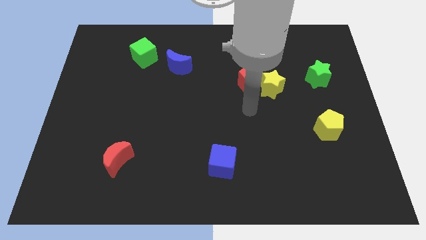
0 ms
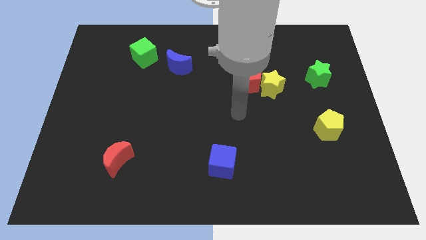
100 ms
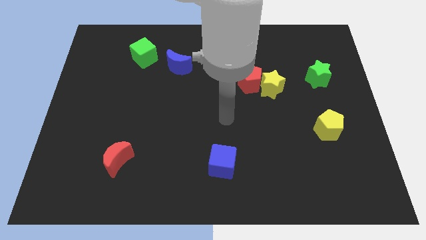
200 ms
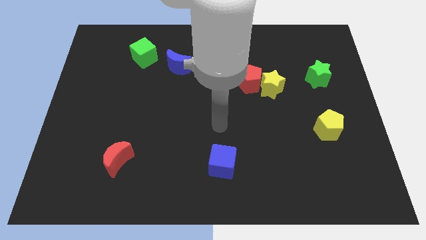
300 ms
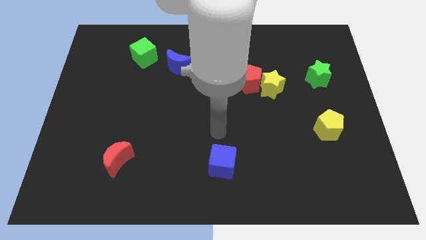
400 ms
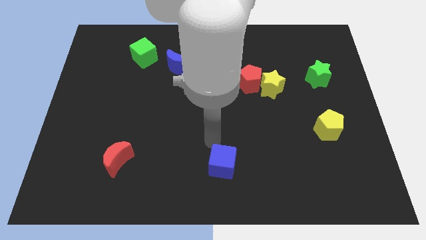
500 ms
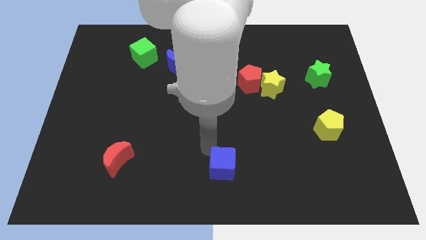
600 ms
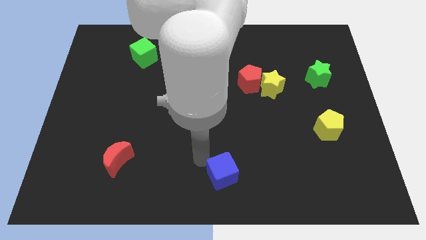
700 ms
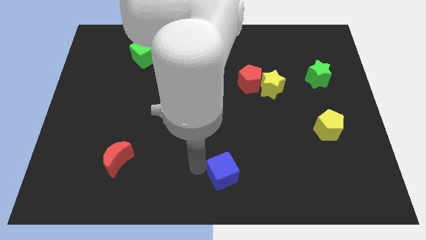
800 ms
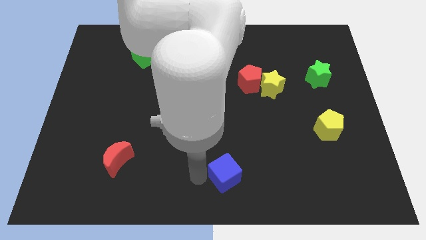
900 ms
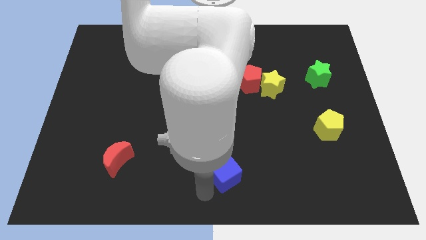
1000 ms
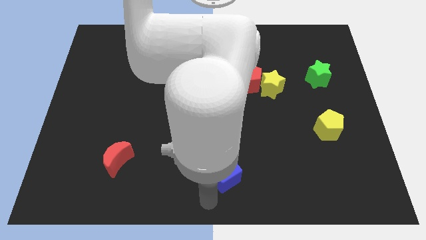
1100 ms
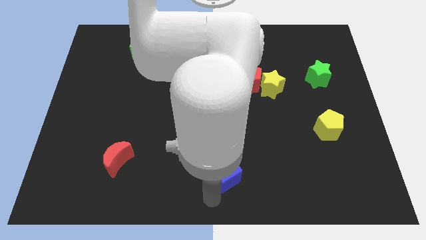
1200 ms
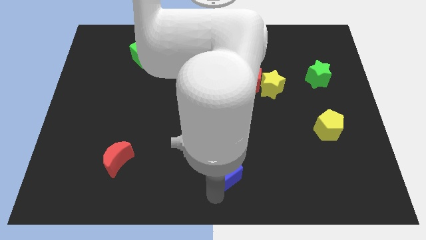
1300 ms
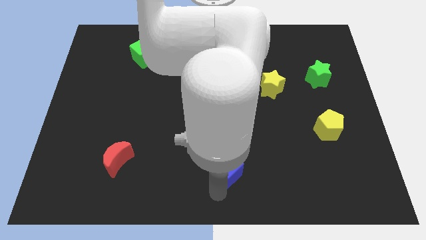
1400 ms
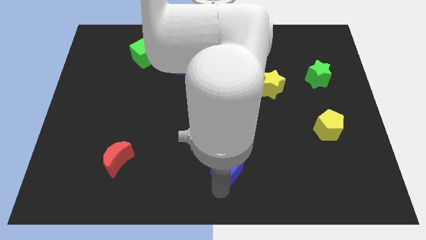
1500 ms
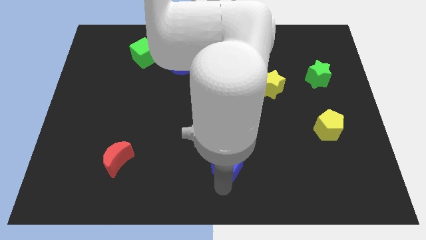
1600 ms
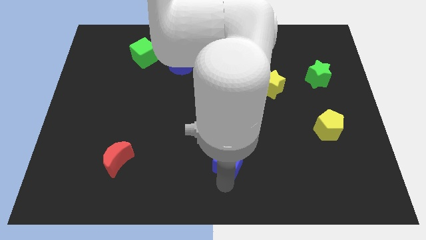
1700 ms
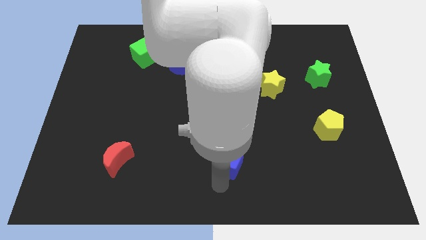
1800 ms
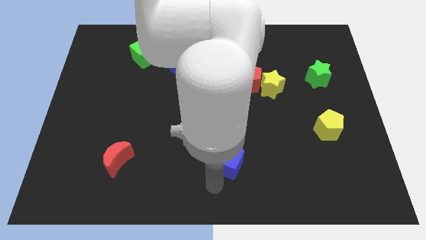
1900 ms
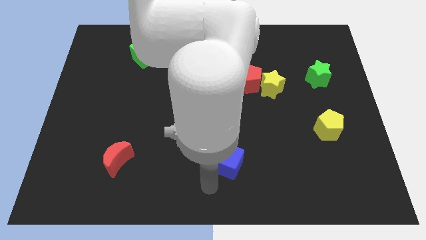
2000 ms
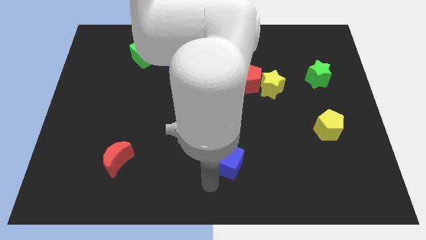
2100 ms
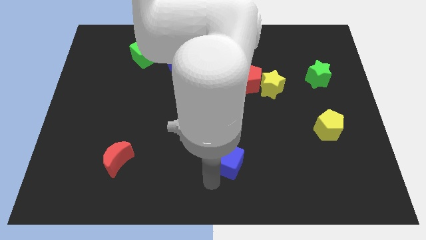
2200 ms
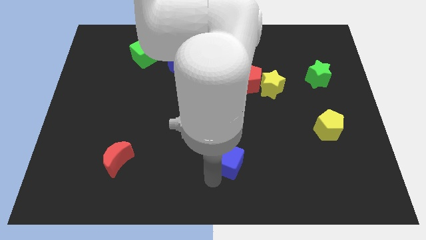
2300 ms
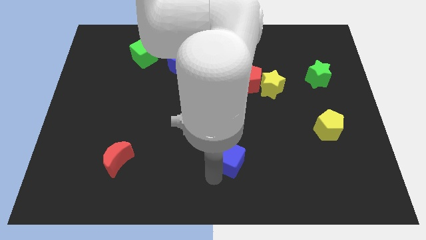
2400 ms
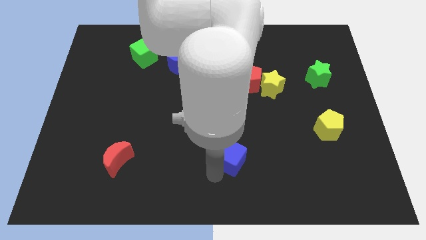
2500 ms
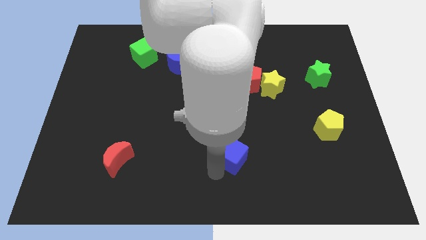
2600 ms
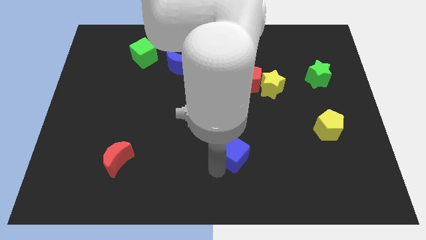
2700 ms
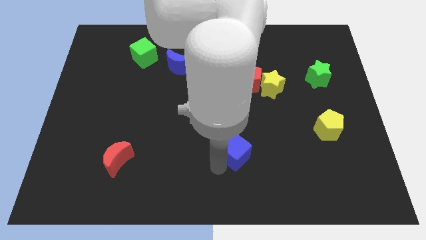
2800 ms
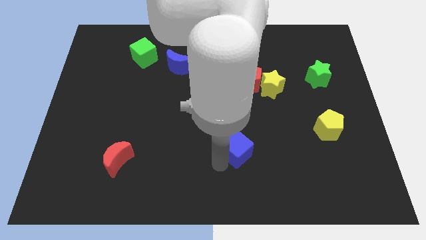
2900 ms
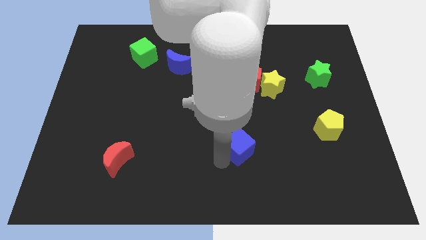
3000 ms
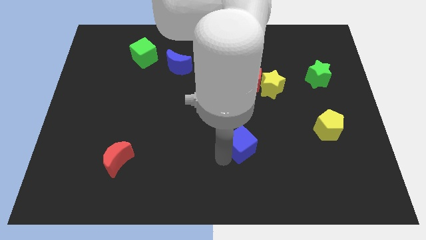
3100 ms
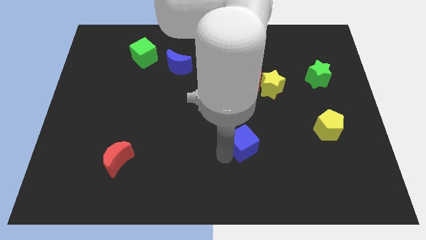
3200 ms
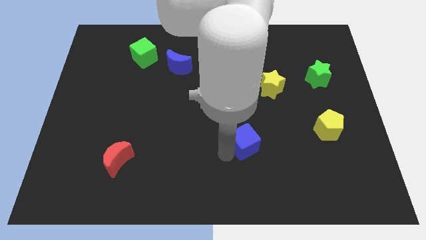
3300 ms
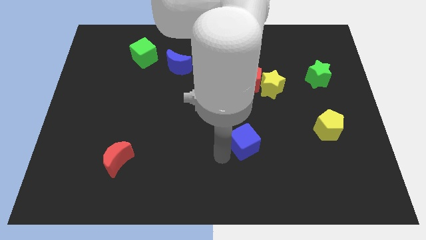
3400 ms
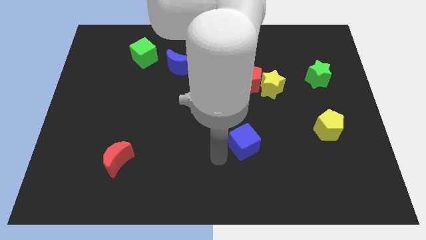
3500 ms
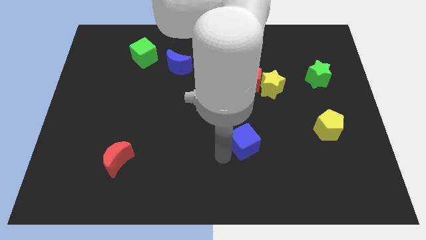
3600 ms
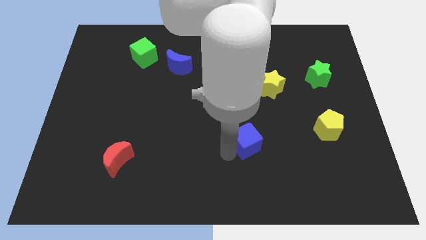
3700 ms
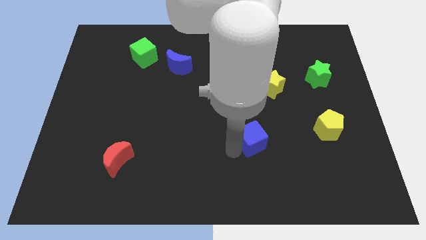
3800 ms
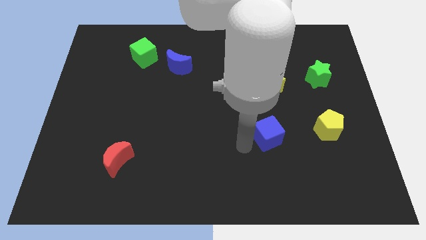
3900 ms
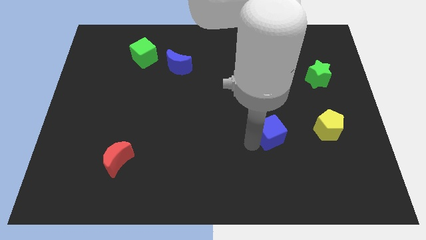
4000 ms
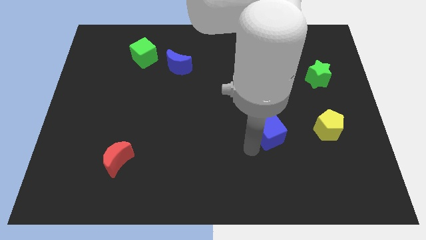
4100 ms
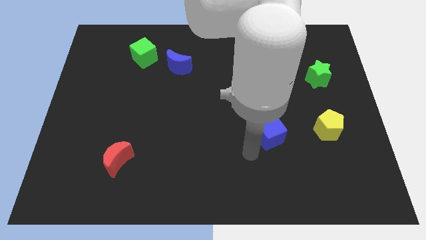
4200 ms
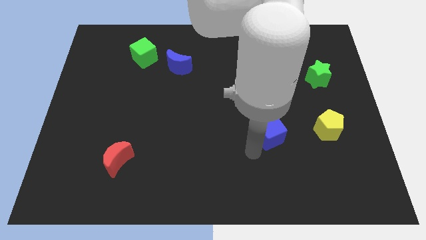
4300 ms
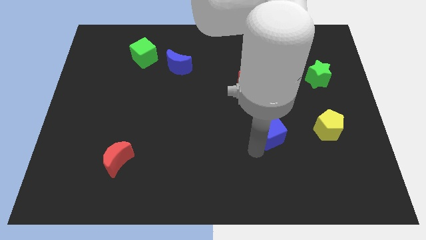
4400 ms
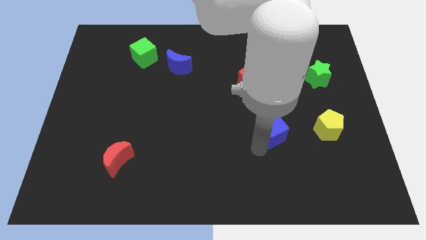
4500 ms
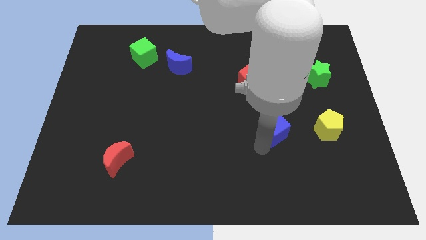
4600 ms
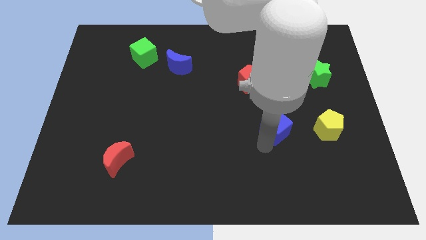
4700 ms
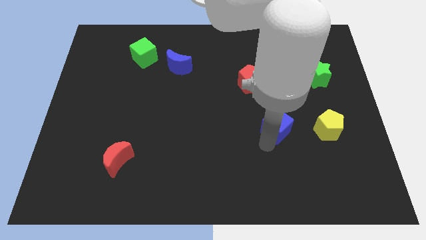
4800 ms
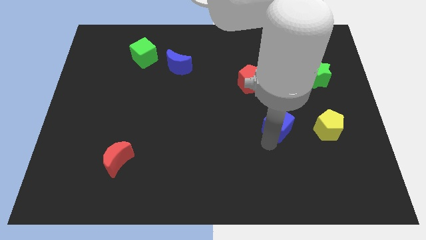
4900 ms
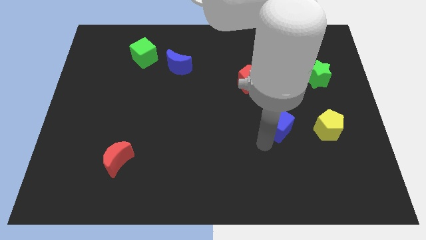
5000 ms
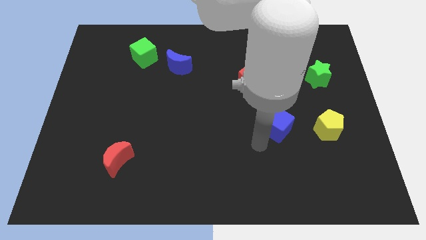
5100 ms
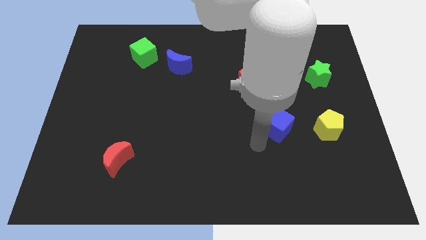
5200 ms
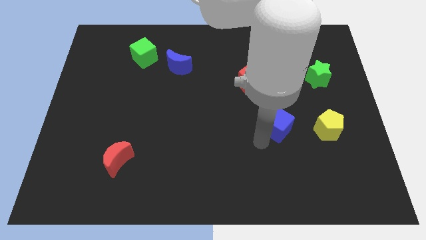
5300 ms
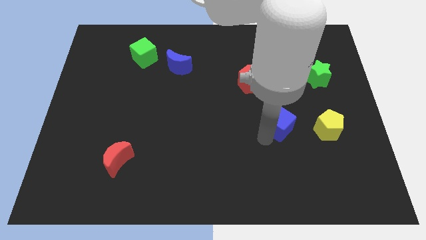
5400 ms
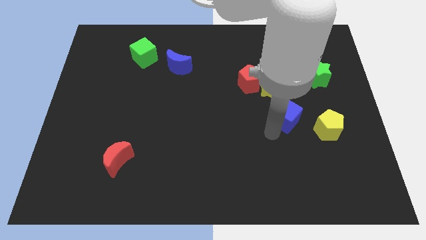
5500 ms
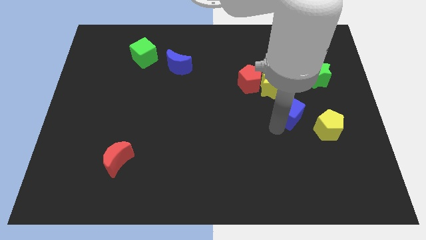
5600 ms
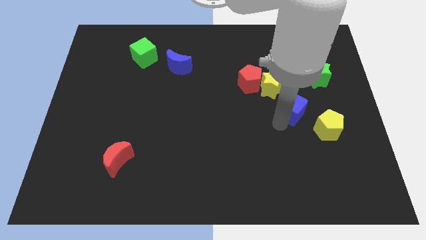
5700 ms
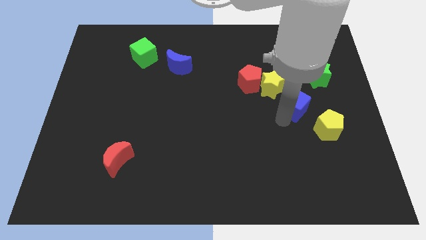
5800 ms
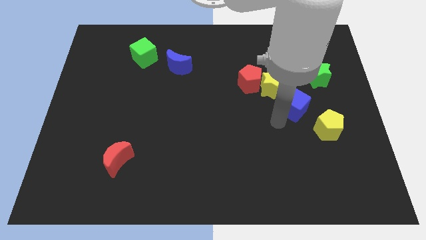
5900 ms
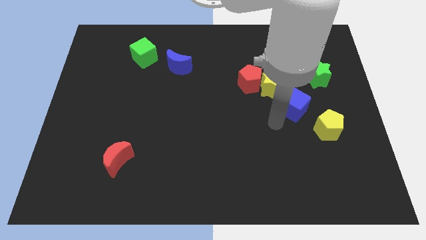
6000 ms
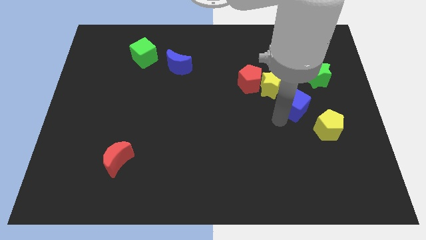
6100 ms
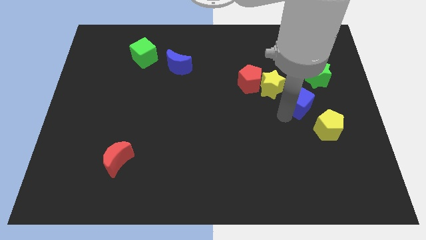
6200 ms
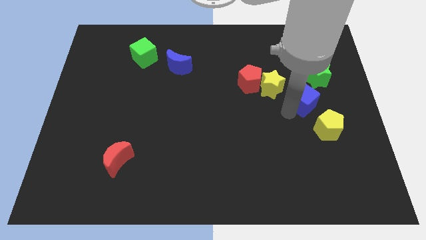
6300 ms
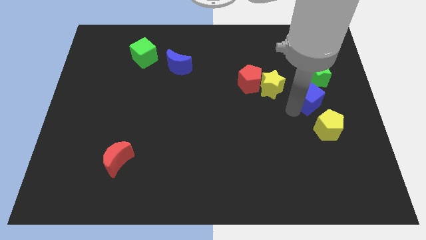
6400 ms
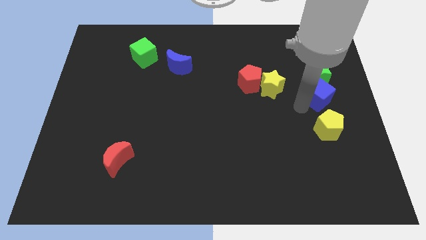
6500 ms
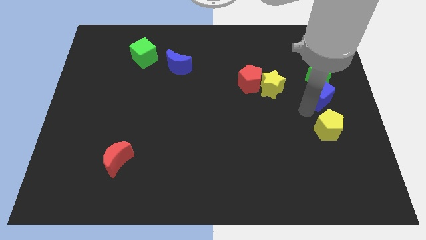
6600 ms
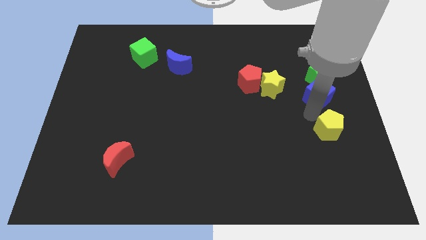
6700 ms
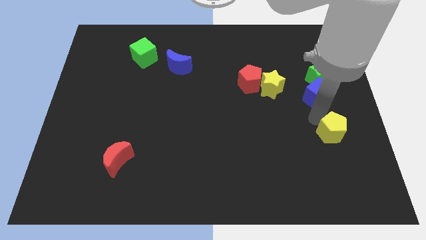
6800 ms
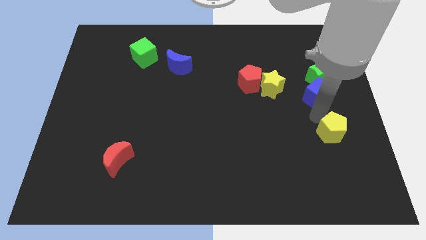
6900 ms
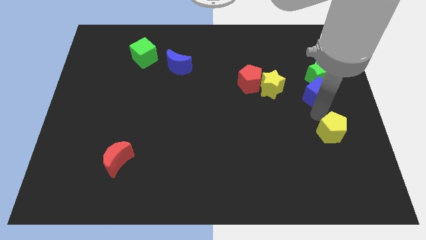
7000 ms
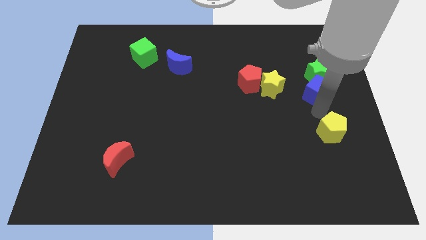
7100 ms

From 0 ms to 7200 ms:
slide the blue cube to the green star

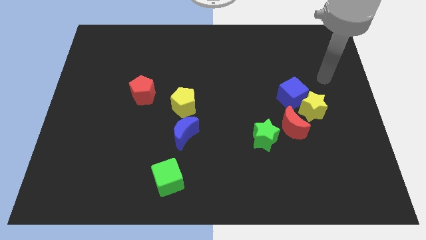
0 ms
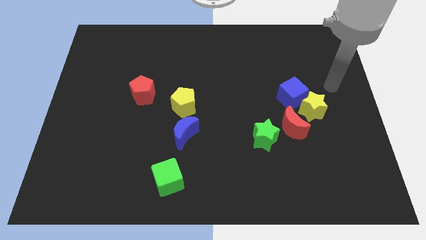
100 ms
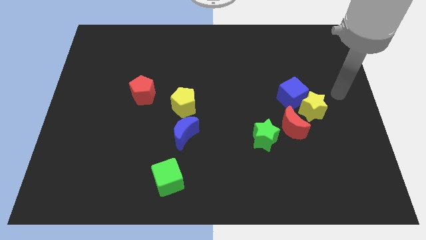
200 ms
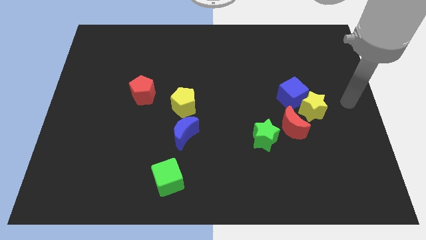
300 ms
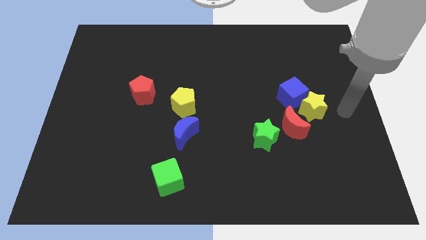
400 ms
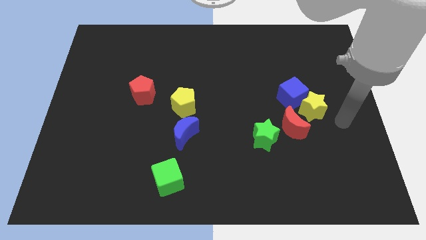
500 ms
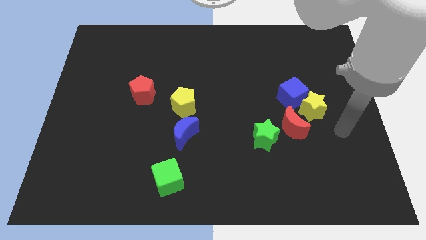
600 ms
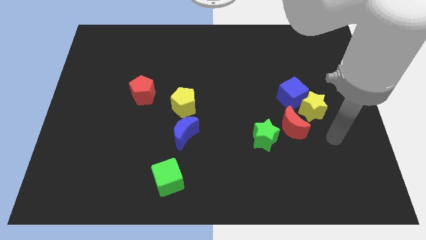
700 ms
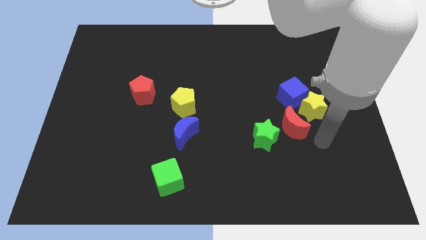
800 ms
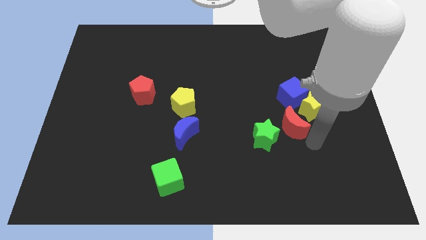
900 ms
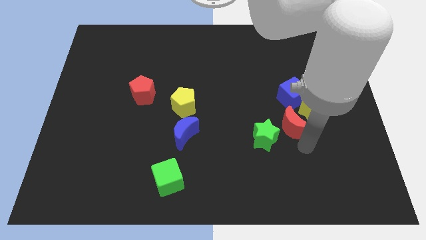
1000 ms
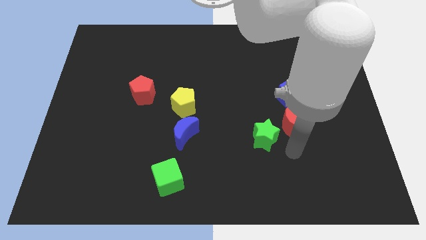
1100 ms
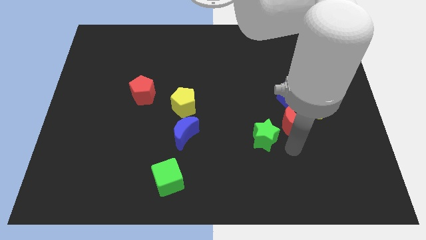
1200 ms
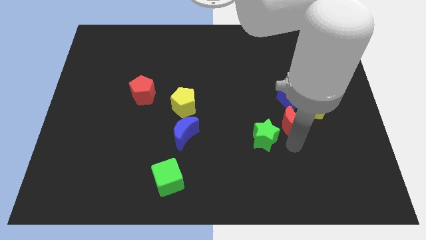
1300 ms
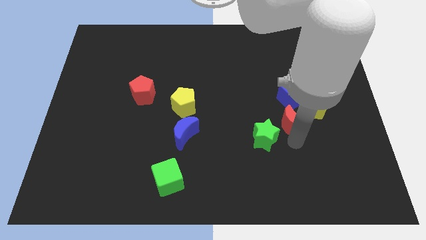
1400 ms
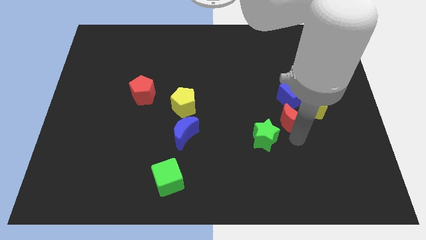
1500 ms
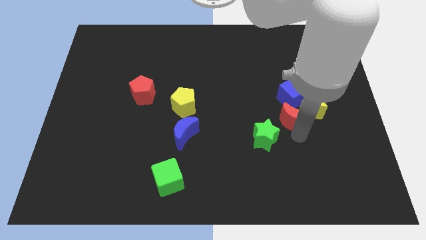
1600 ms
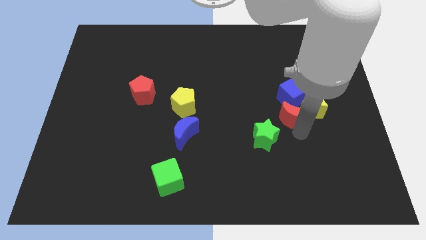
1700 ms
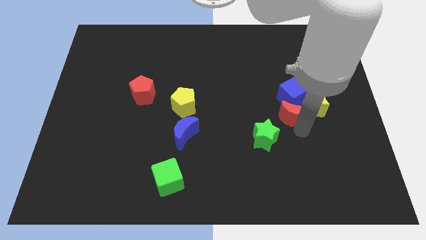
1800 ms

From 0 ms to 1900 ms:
push the red moon towards the blue cube
